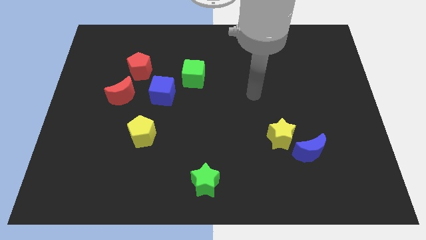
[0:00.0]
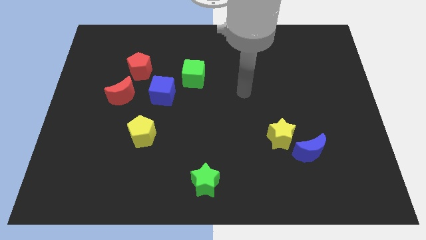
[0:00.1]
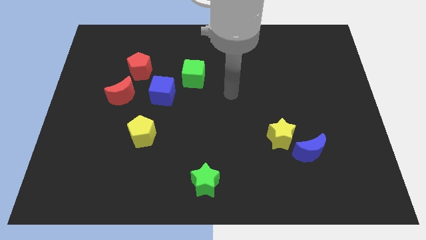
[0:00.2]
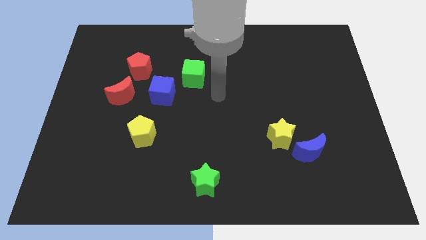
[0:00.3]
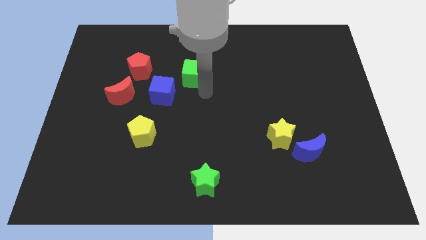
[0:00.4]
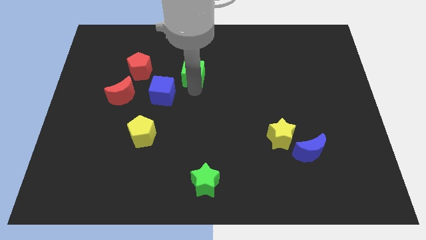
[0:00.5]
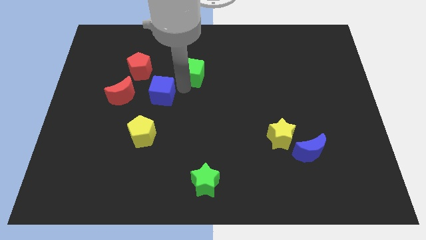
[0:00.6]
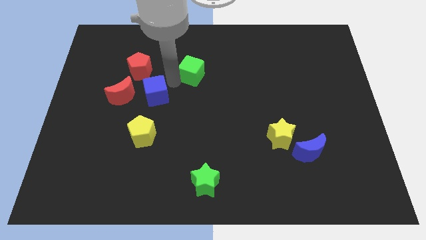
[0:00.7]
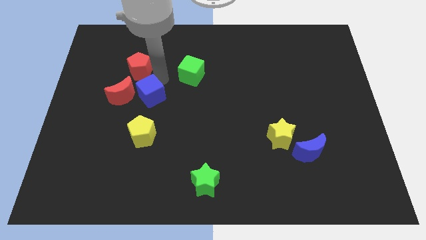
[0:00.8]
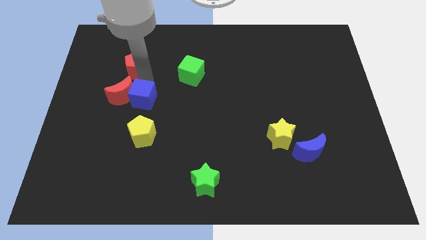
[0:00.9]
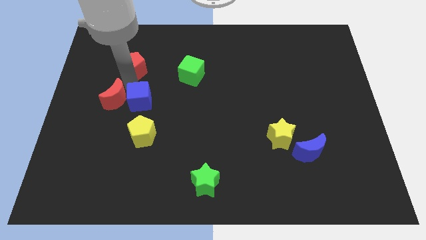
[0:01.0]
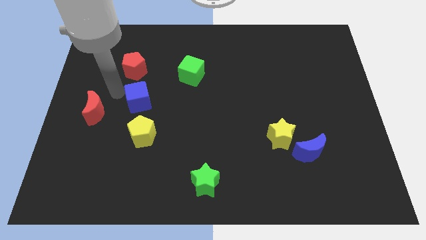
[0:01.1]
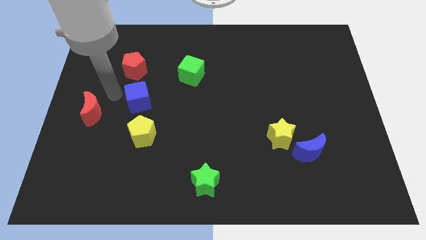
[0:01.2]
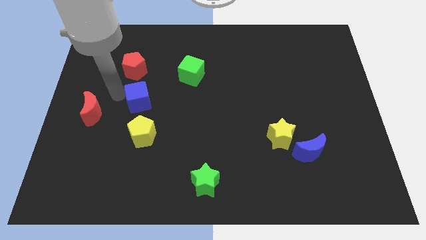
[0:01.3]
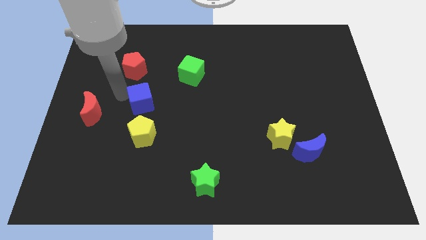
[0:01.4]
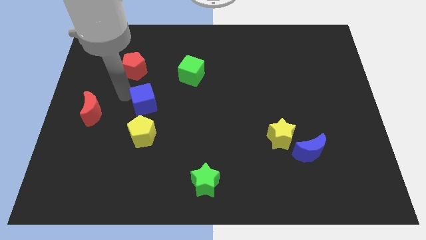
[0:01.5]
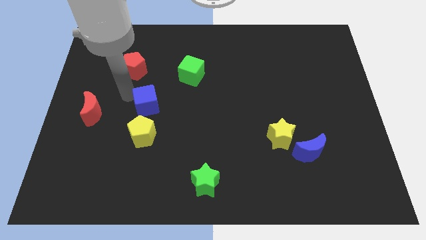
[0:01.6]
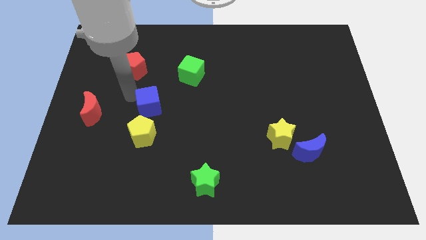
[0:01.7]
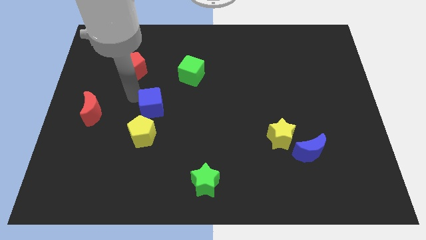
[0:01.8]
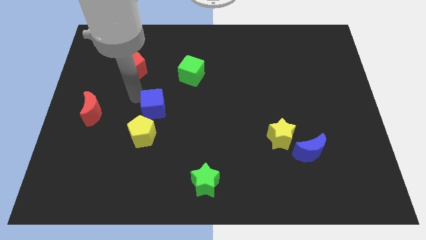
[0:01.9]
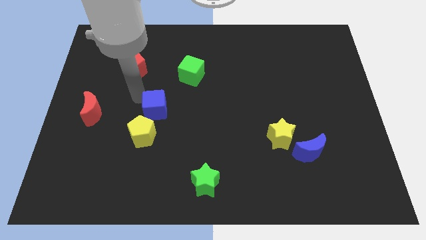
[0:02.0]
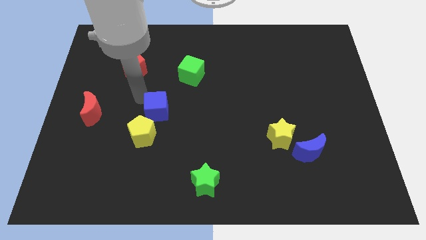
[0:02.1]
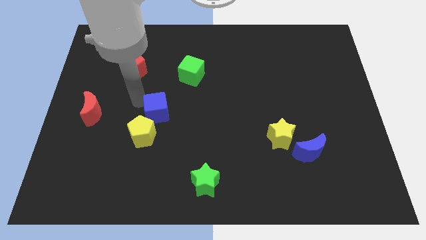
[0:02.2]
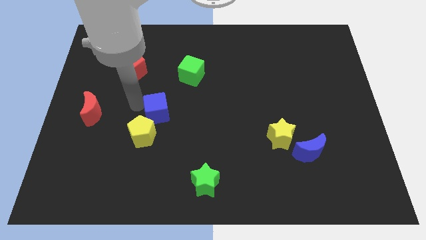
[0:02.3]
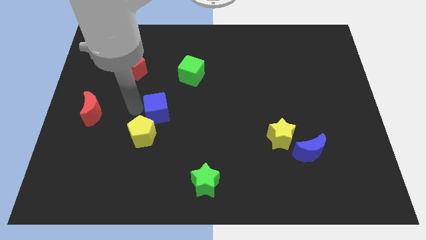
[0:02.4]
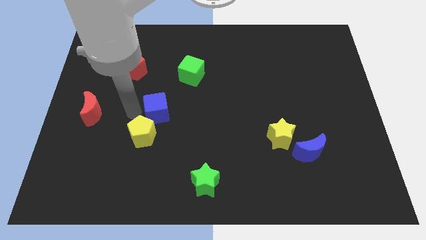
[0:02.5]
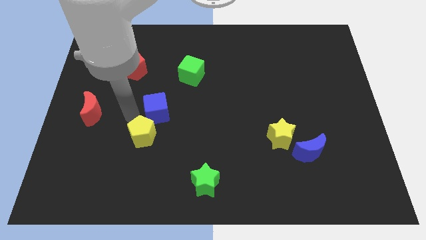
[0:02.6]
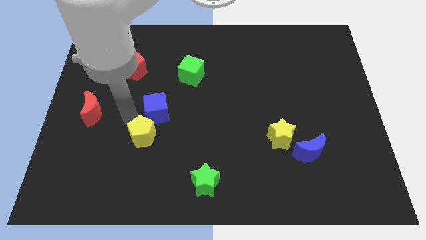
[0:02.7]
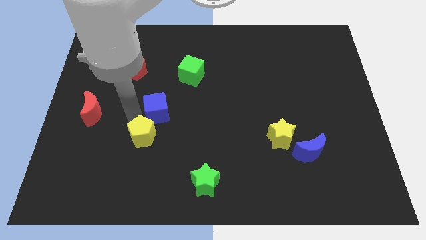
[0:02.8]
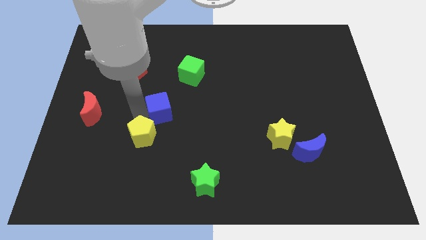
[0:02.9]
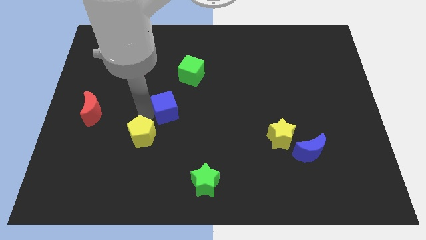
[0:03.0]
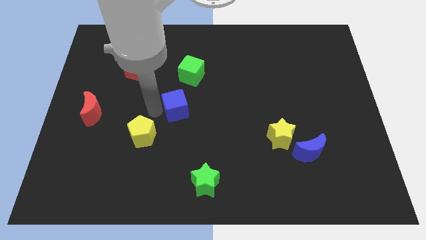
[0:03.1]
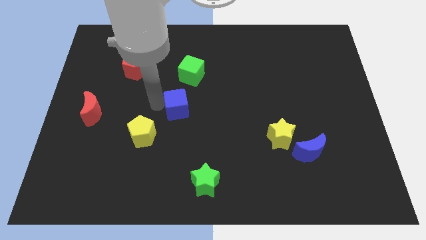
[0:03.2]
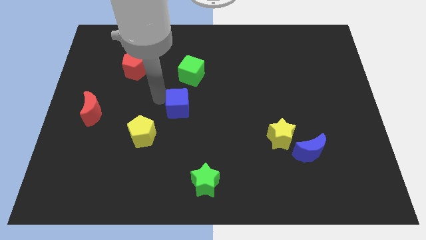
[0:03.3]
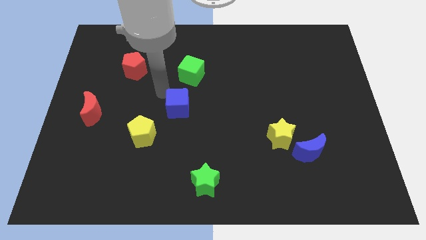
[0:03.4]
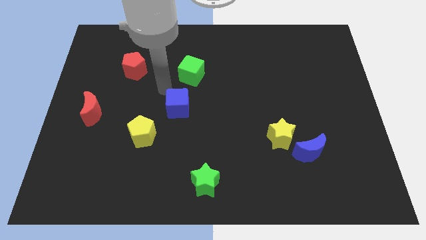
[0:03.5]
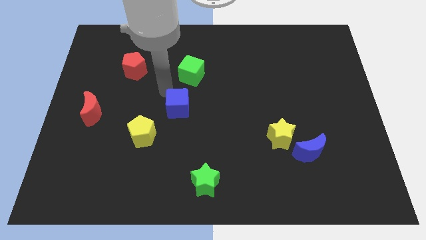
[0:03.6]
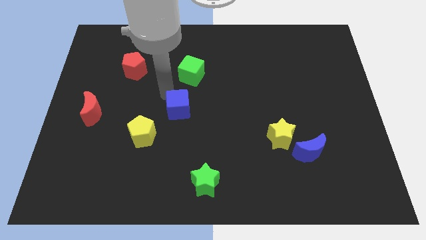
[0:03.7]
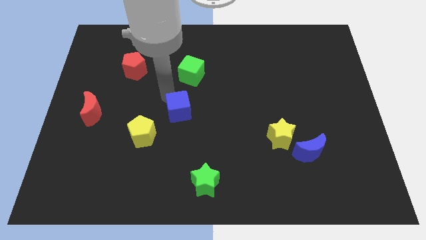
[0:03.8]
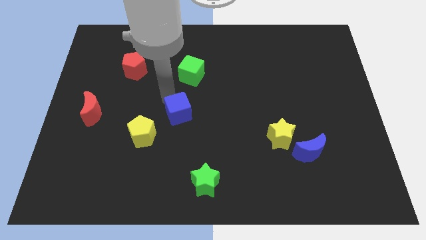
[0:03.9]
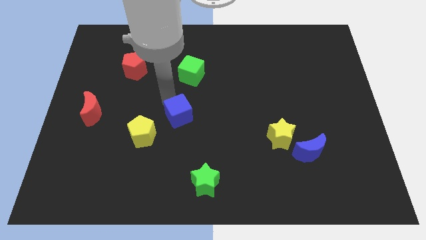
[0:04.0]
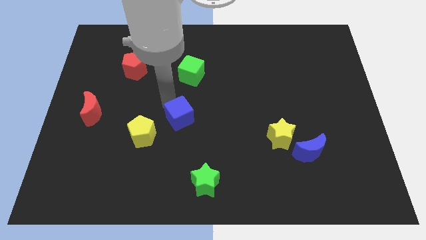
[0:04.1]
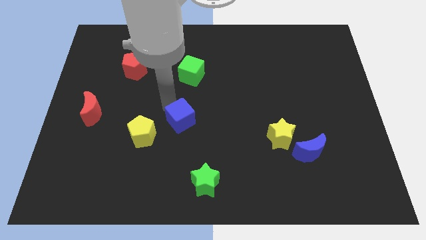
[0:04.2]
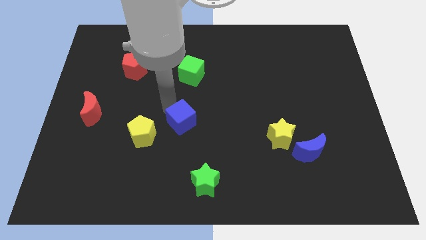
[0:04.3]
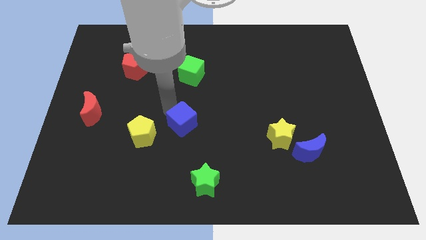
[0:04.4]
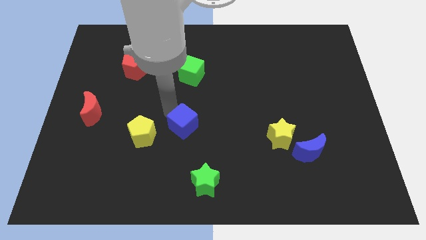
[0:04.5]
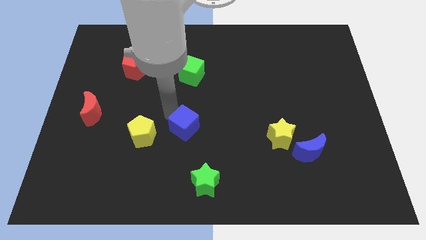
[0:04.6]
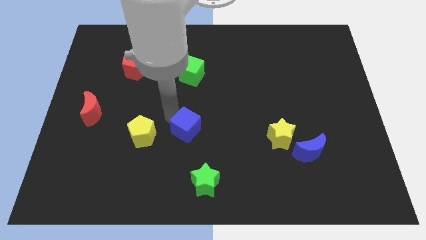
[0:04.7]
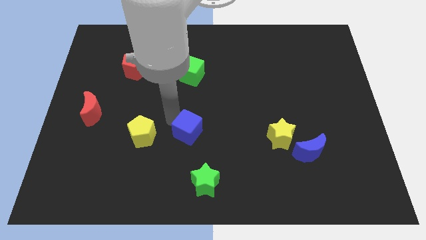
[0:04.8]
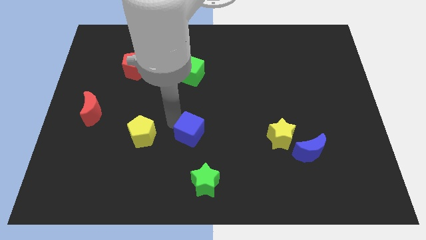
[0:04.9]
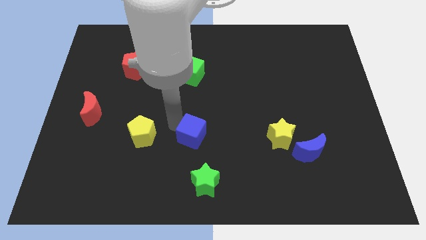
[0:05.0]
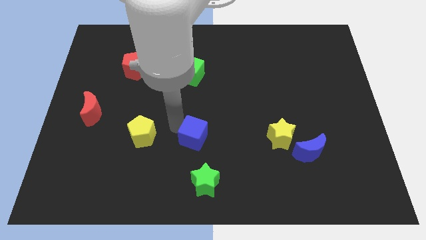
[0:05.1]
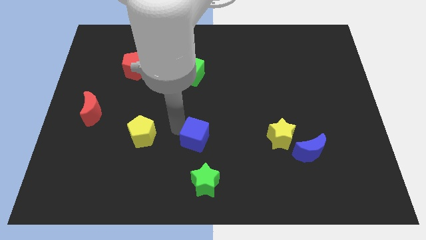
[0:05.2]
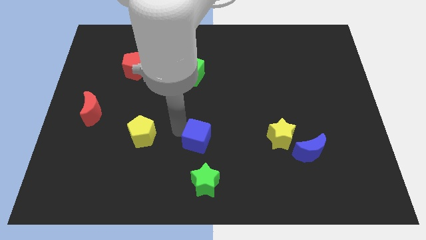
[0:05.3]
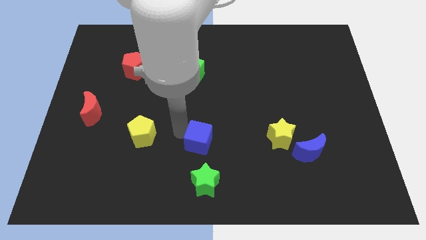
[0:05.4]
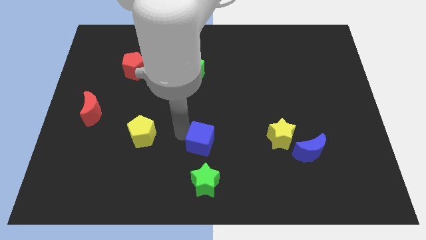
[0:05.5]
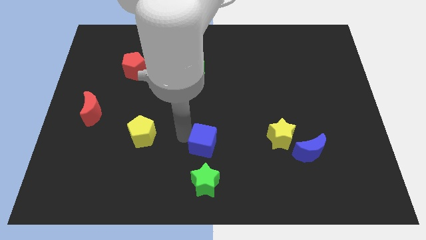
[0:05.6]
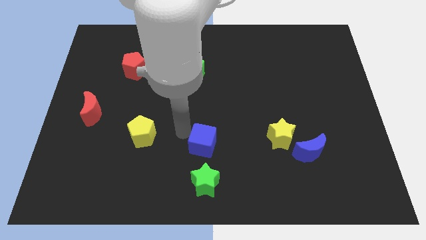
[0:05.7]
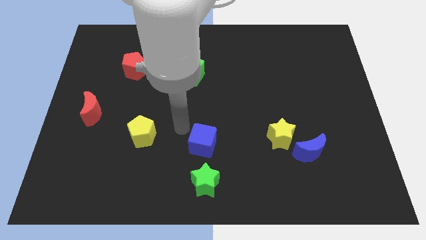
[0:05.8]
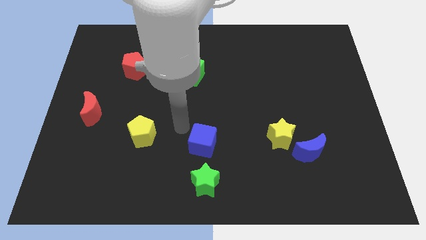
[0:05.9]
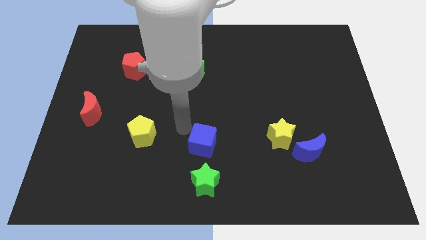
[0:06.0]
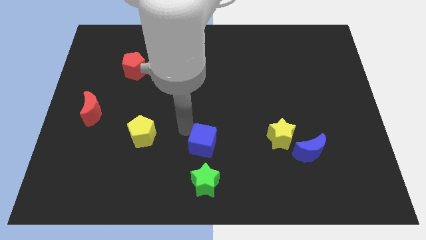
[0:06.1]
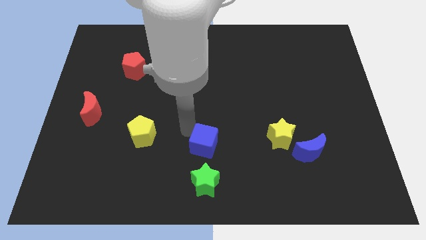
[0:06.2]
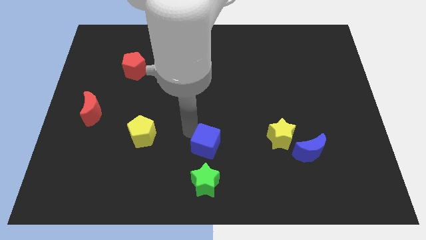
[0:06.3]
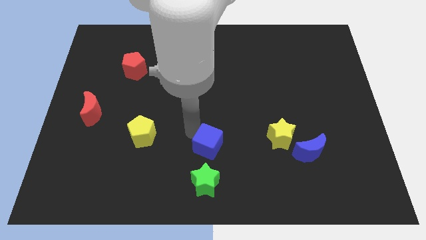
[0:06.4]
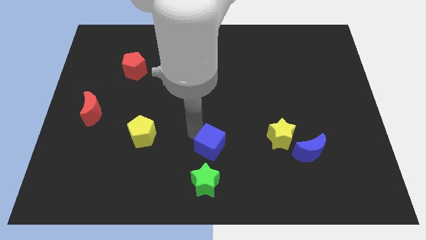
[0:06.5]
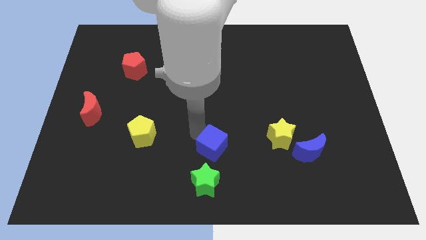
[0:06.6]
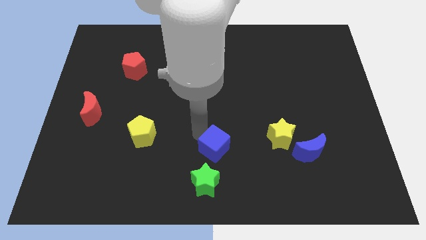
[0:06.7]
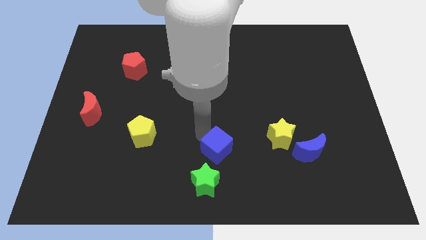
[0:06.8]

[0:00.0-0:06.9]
move the blue cube diagonally down and right

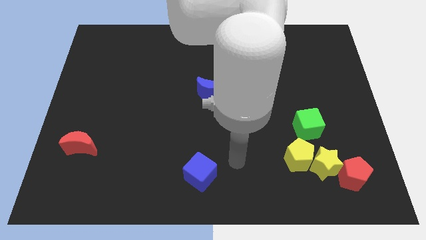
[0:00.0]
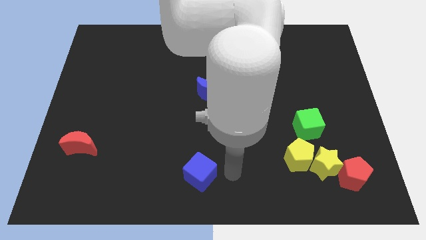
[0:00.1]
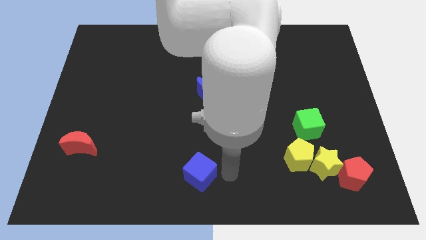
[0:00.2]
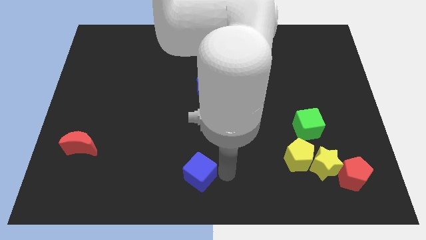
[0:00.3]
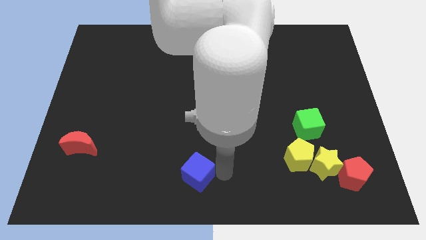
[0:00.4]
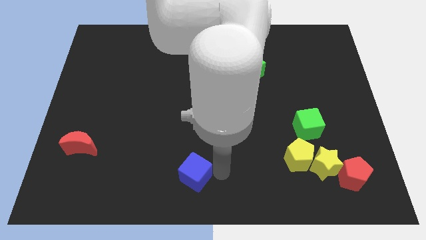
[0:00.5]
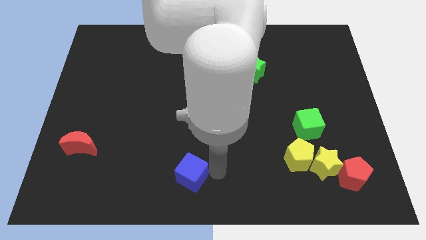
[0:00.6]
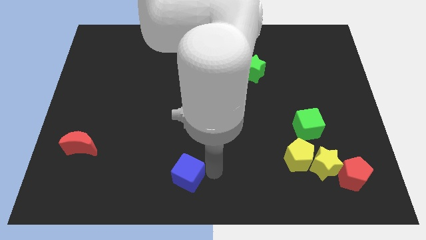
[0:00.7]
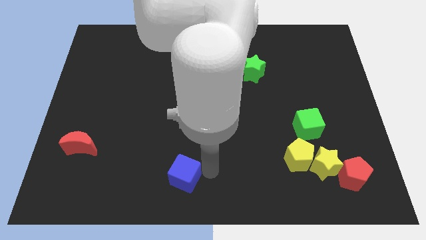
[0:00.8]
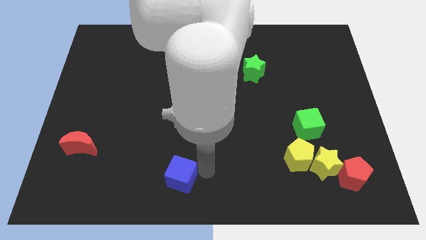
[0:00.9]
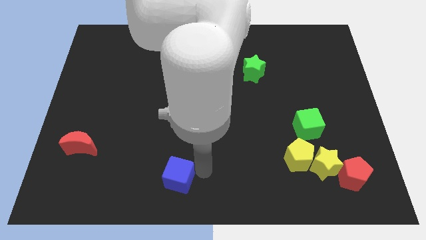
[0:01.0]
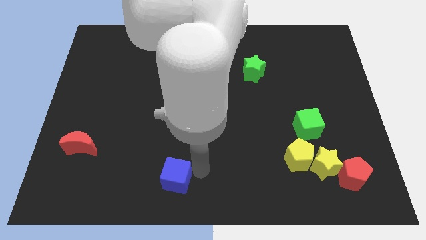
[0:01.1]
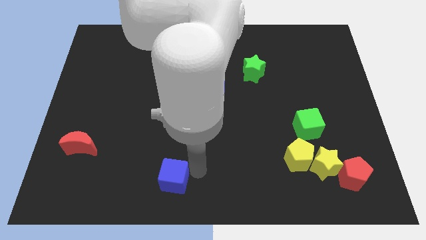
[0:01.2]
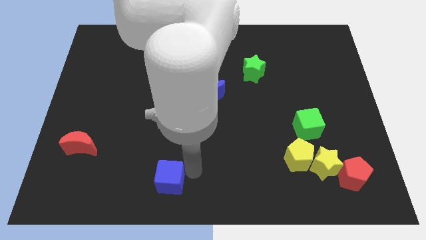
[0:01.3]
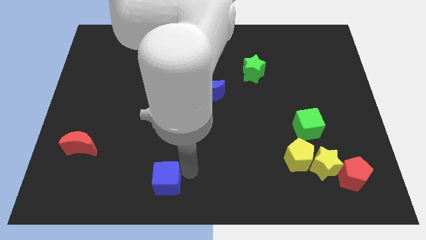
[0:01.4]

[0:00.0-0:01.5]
slide the blue cube to the left somewhat
